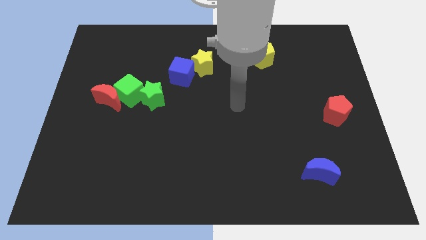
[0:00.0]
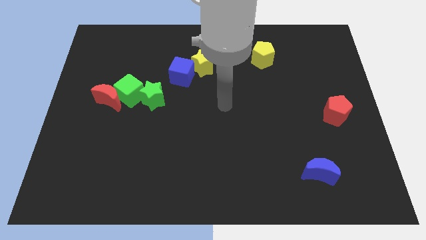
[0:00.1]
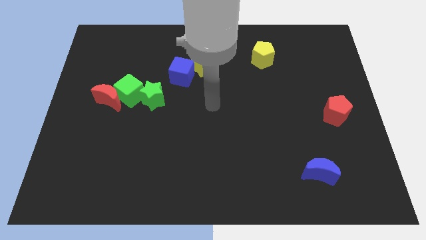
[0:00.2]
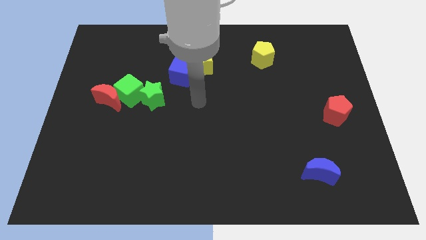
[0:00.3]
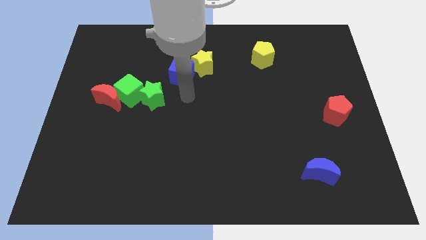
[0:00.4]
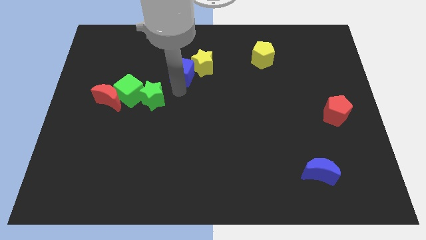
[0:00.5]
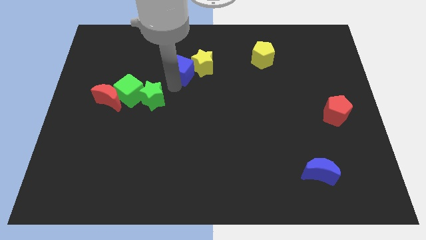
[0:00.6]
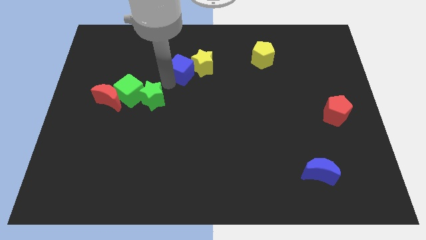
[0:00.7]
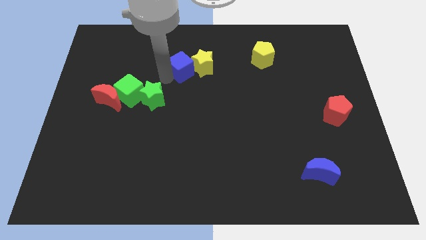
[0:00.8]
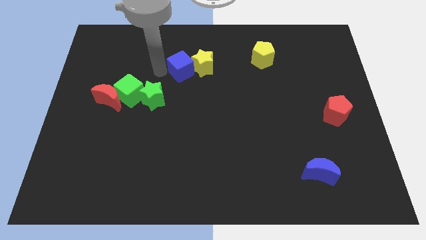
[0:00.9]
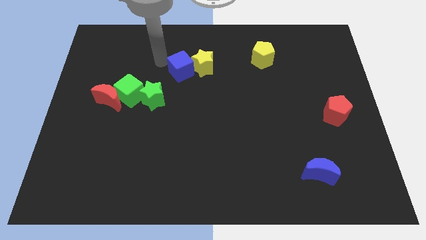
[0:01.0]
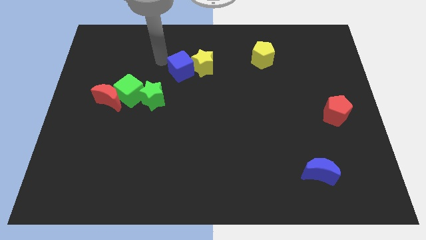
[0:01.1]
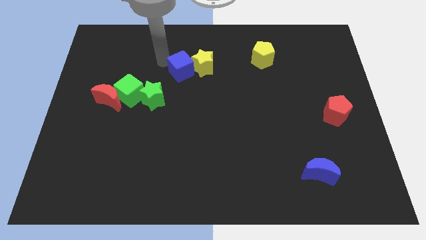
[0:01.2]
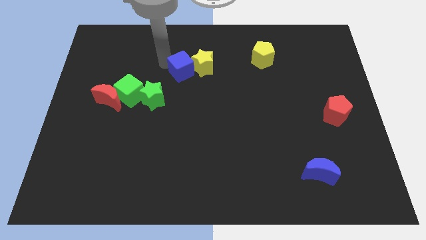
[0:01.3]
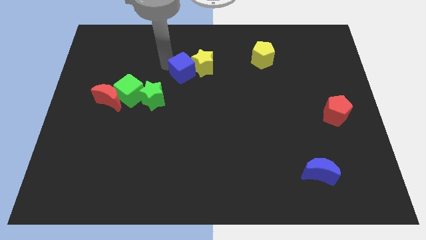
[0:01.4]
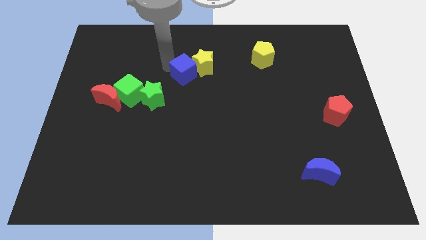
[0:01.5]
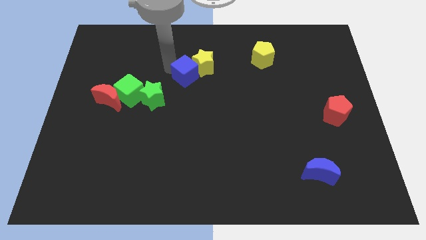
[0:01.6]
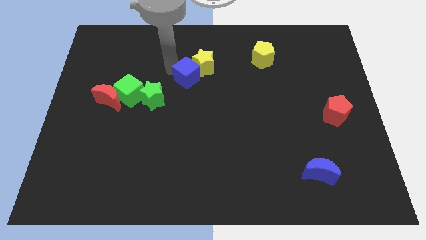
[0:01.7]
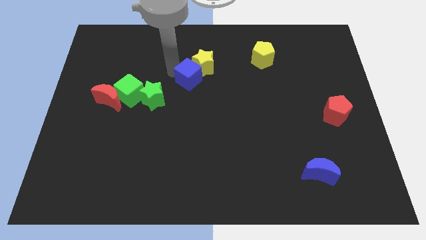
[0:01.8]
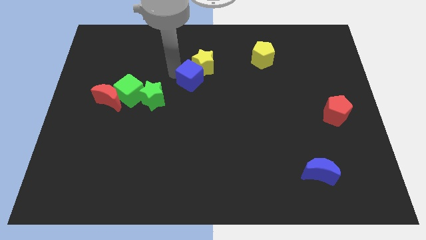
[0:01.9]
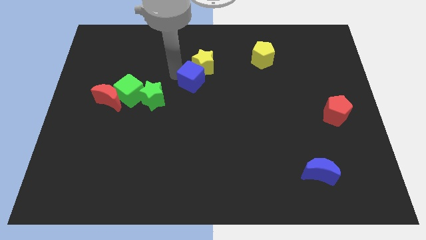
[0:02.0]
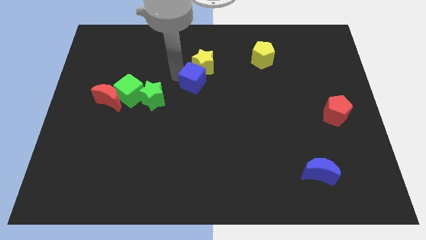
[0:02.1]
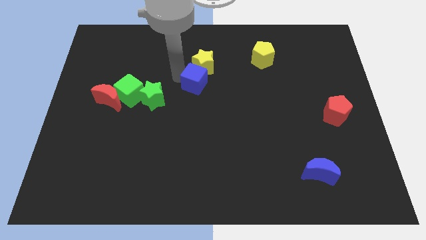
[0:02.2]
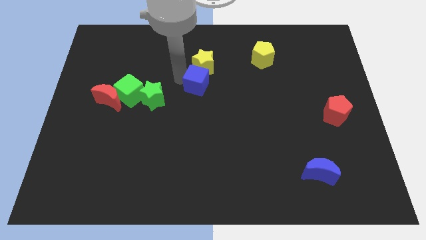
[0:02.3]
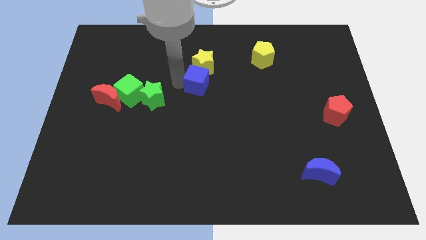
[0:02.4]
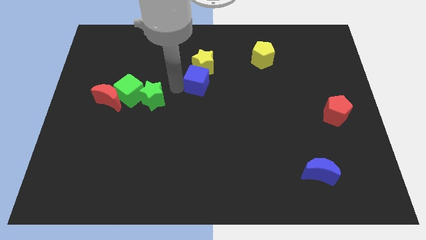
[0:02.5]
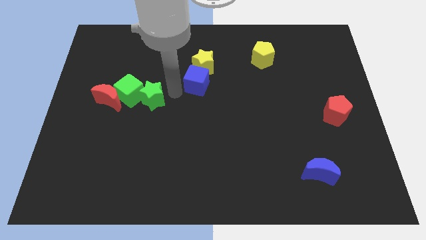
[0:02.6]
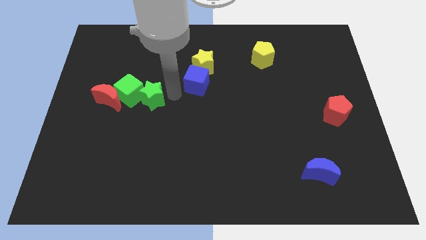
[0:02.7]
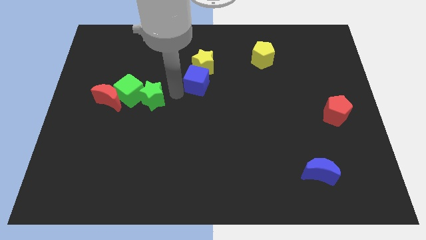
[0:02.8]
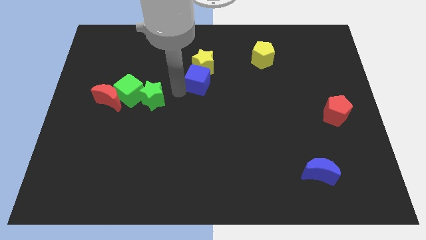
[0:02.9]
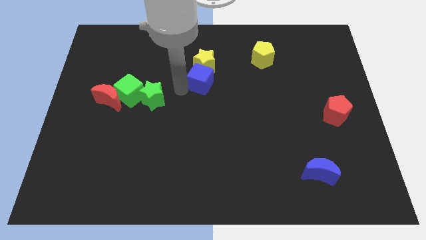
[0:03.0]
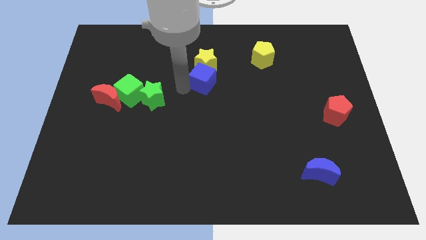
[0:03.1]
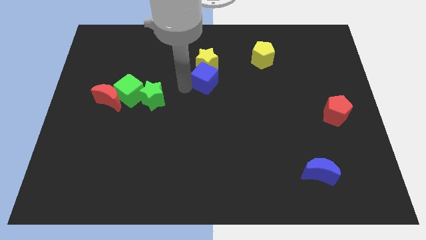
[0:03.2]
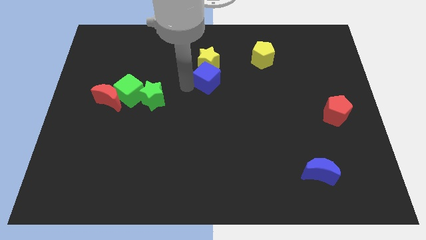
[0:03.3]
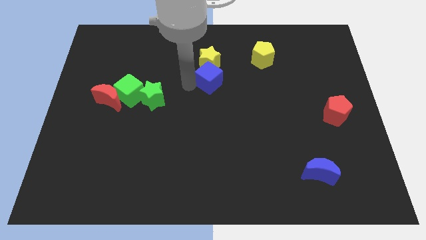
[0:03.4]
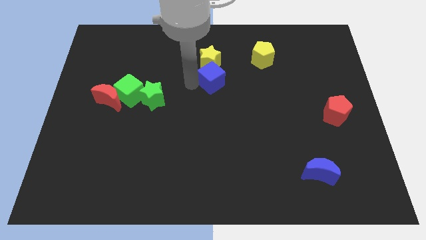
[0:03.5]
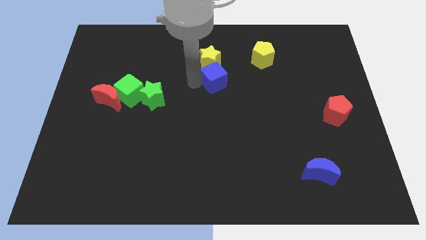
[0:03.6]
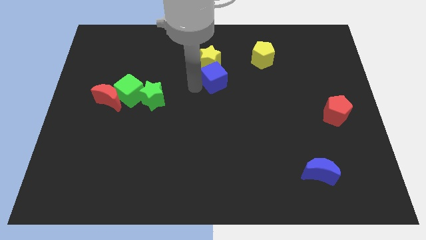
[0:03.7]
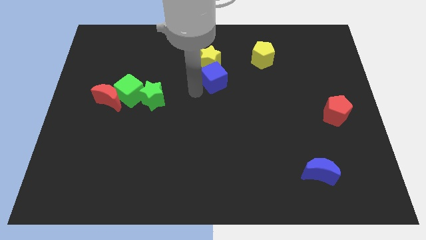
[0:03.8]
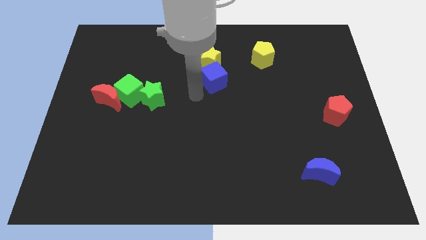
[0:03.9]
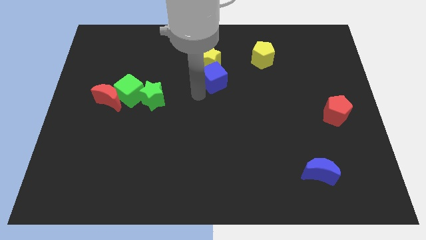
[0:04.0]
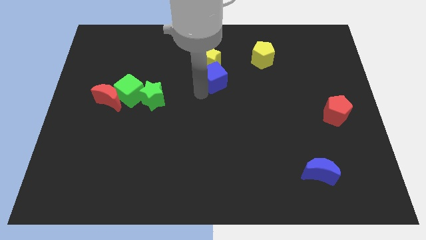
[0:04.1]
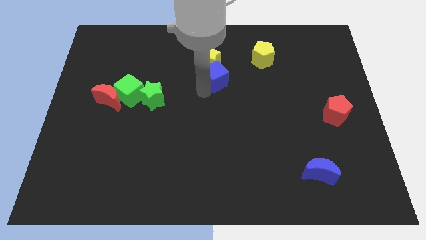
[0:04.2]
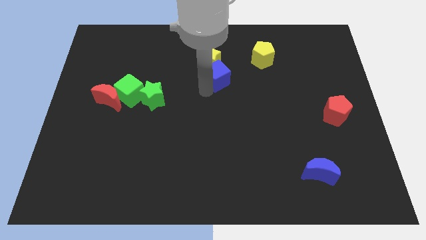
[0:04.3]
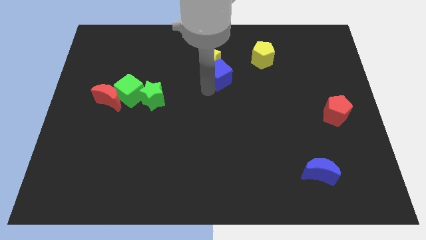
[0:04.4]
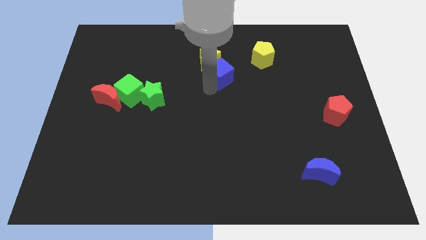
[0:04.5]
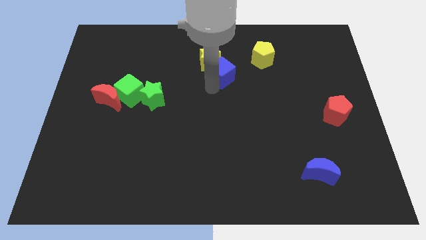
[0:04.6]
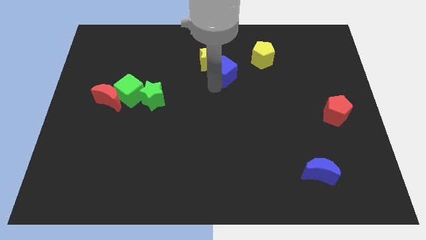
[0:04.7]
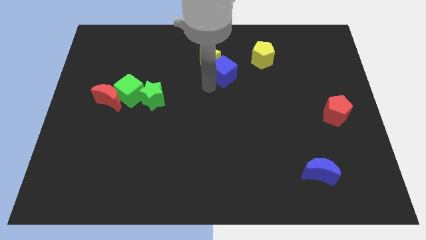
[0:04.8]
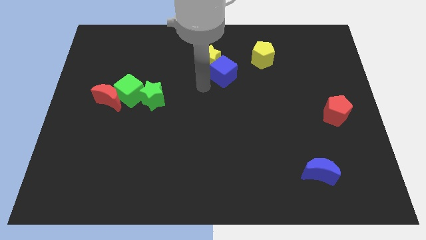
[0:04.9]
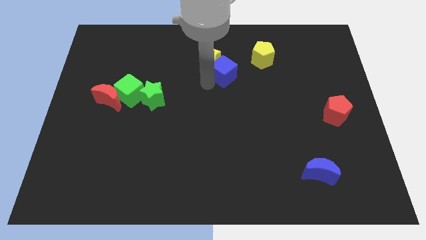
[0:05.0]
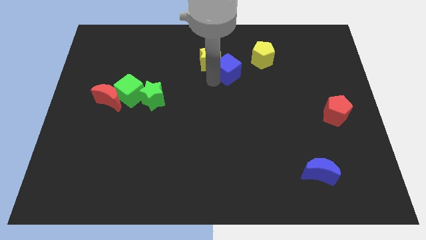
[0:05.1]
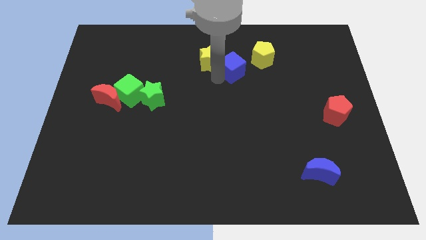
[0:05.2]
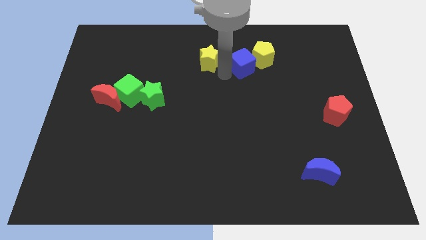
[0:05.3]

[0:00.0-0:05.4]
slide the blue cube towards the yellow pentagon

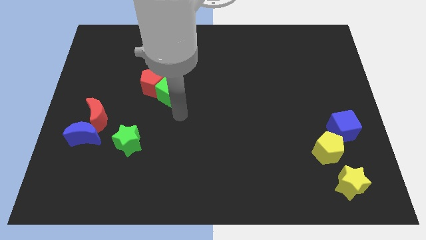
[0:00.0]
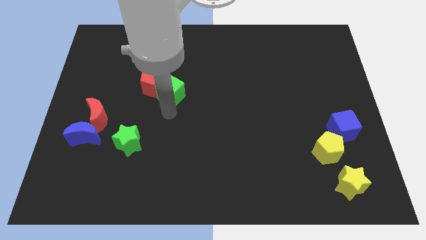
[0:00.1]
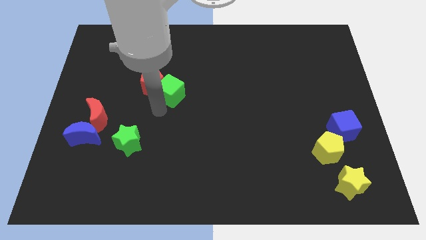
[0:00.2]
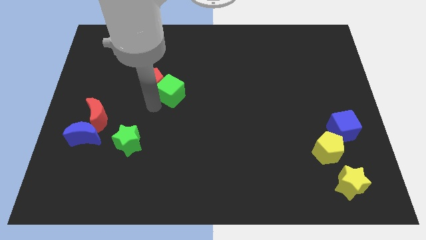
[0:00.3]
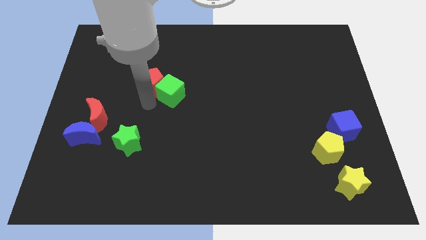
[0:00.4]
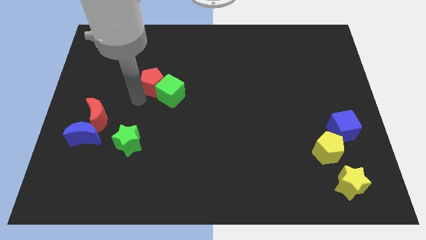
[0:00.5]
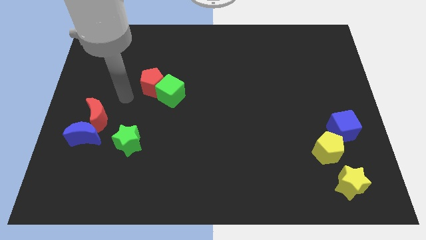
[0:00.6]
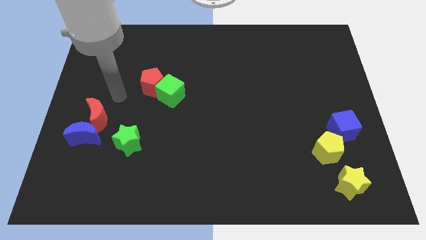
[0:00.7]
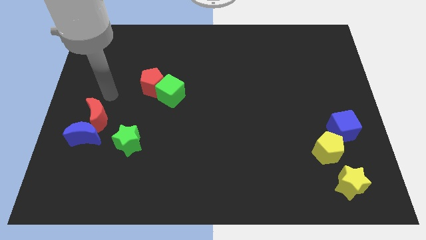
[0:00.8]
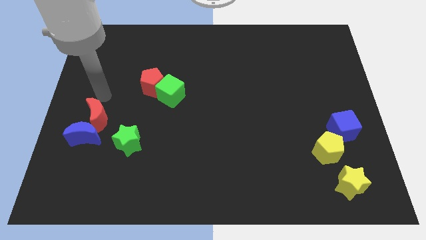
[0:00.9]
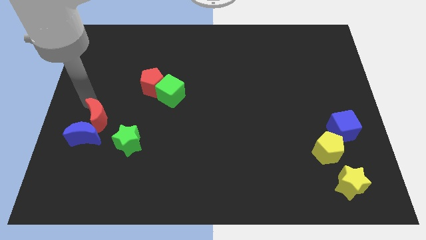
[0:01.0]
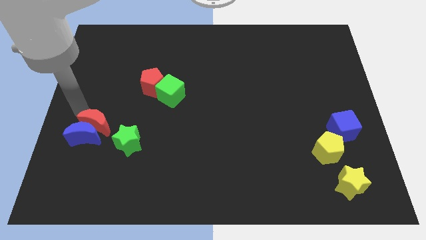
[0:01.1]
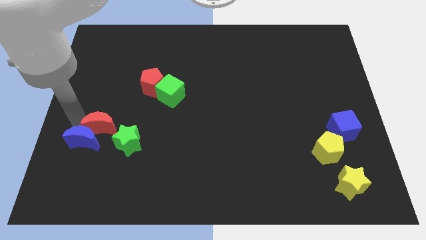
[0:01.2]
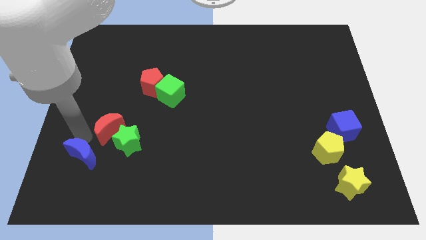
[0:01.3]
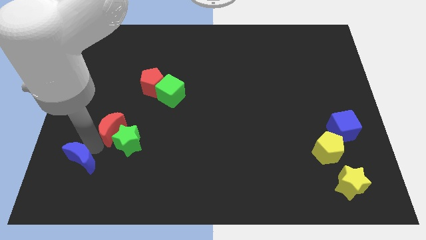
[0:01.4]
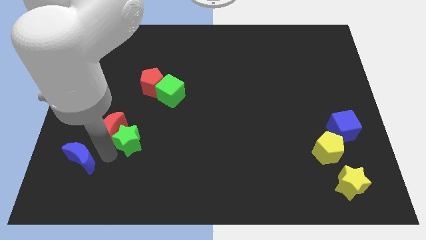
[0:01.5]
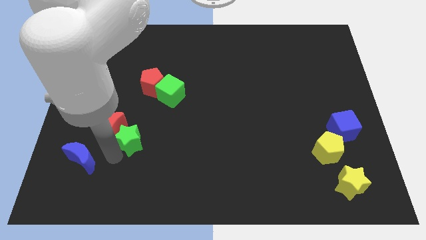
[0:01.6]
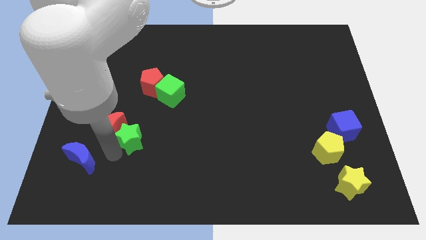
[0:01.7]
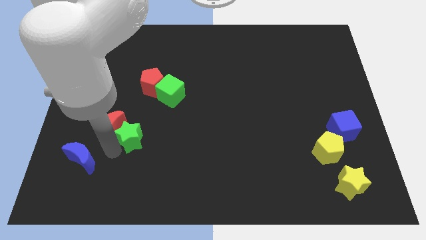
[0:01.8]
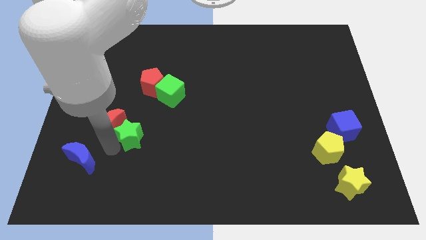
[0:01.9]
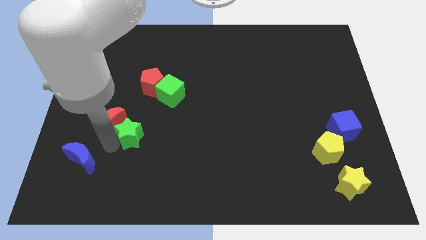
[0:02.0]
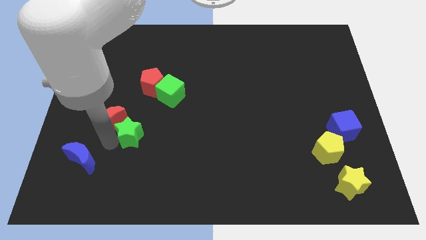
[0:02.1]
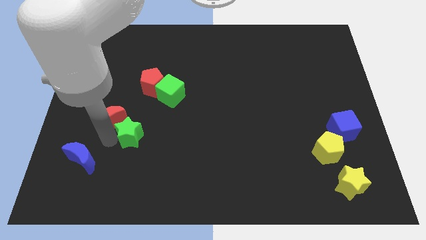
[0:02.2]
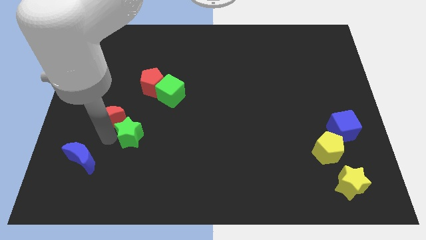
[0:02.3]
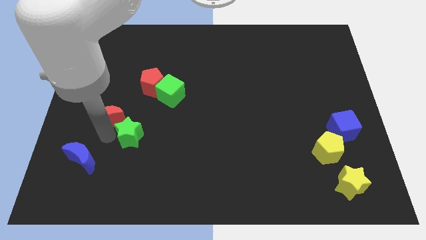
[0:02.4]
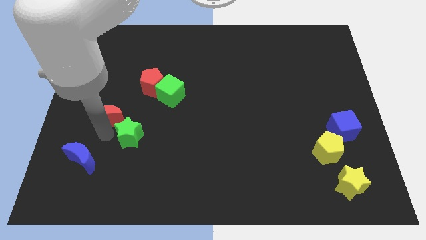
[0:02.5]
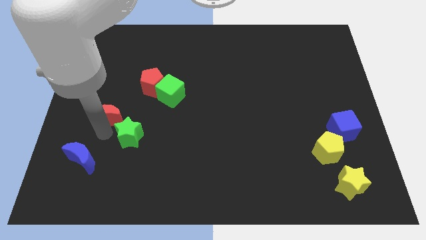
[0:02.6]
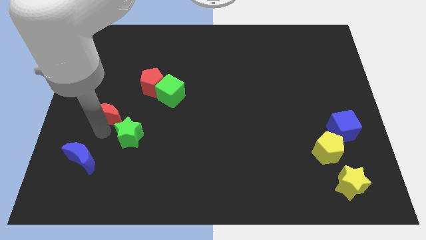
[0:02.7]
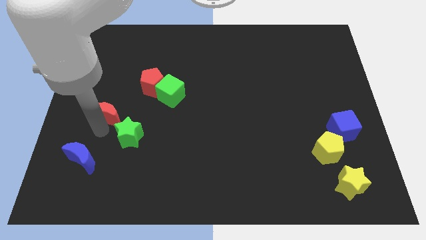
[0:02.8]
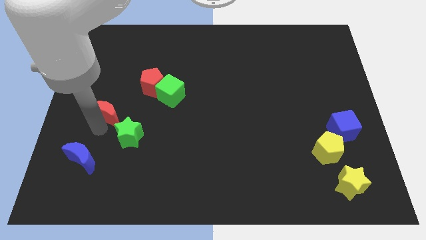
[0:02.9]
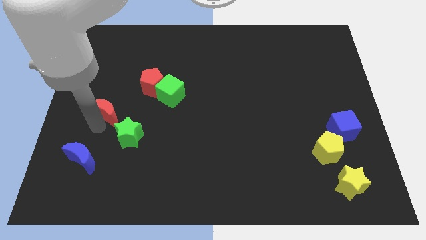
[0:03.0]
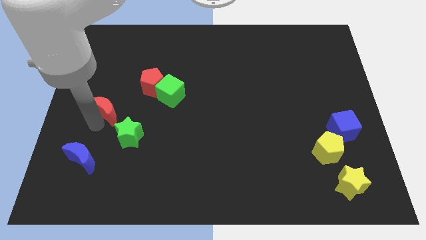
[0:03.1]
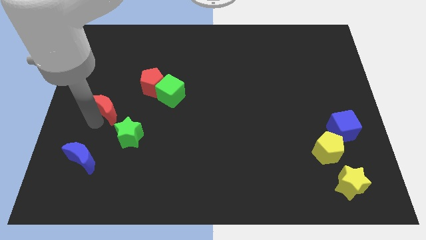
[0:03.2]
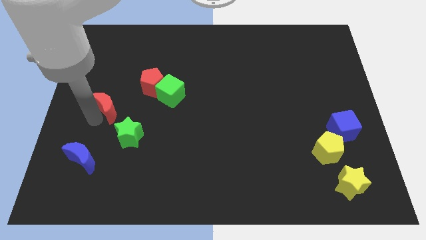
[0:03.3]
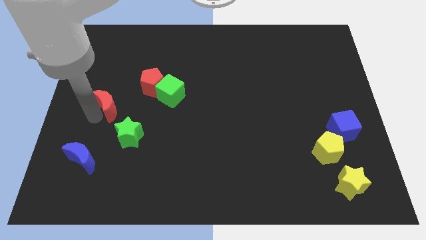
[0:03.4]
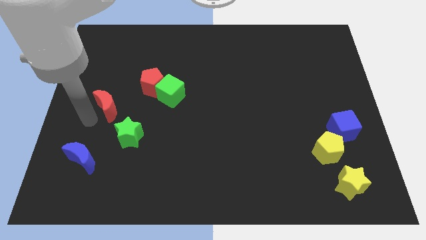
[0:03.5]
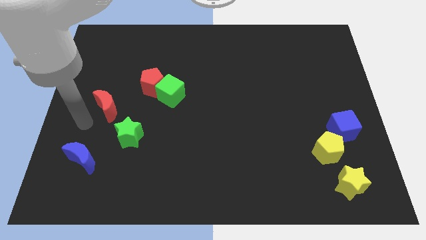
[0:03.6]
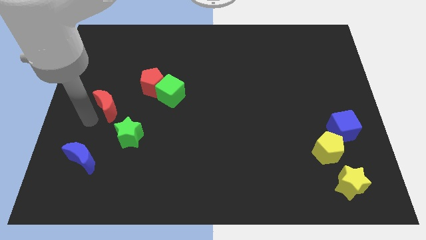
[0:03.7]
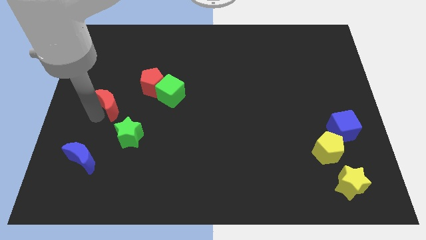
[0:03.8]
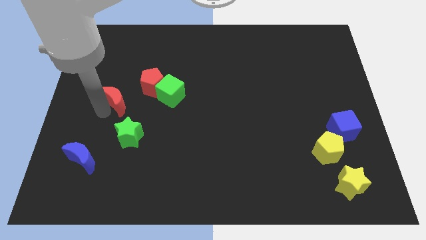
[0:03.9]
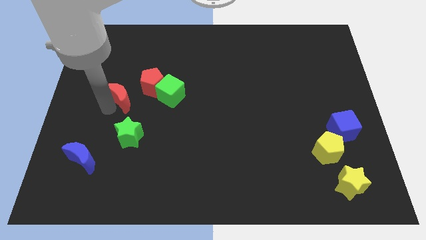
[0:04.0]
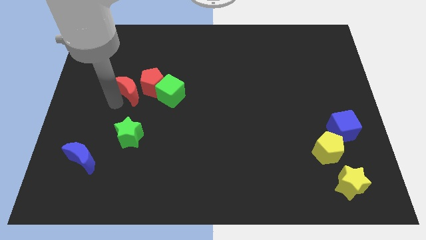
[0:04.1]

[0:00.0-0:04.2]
slide the red moon towards the red pentagon
